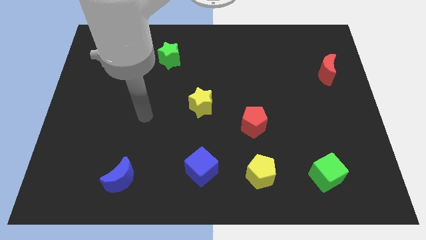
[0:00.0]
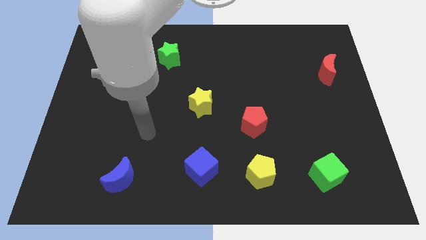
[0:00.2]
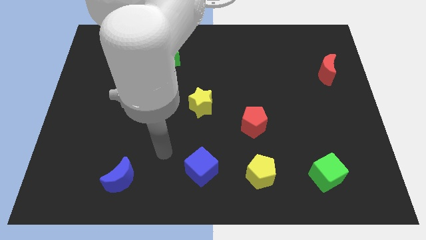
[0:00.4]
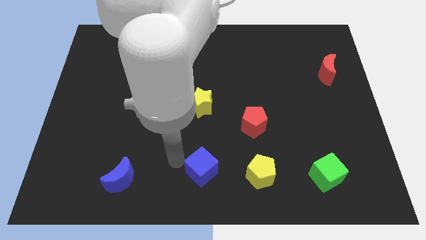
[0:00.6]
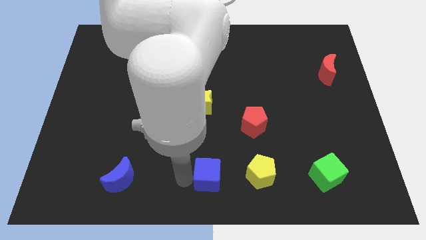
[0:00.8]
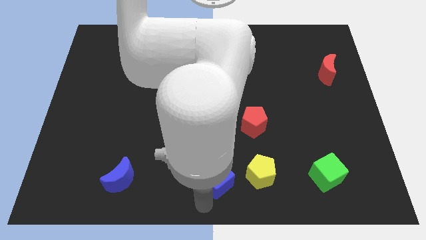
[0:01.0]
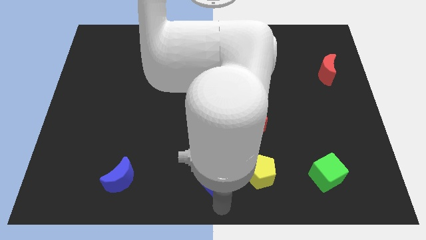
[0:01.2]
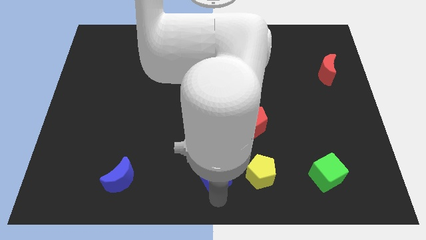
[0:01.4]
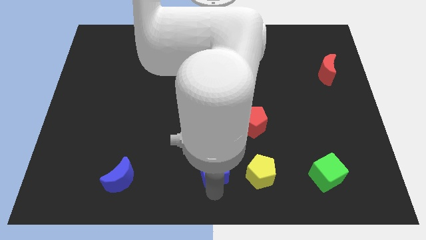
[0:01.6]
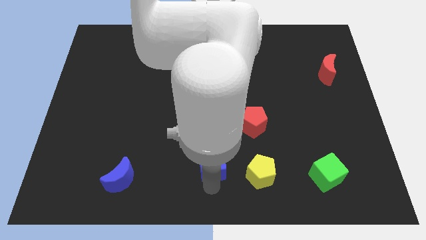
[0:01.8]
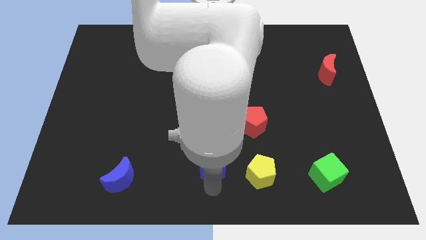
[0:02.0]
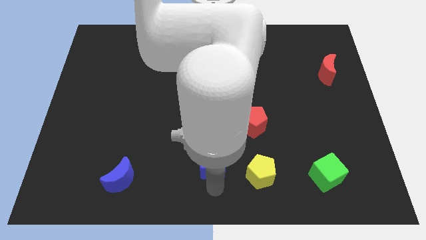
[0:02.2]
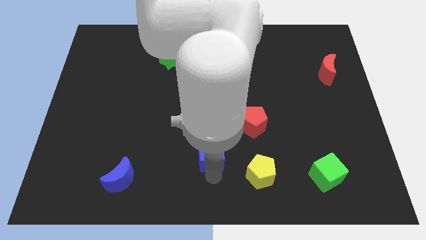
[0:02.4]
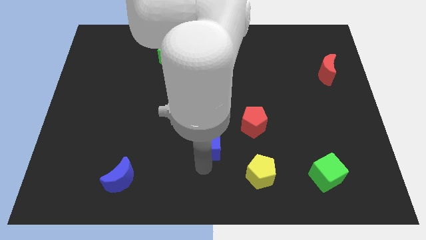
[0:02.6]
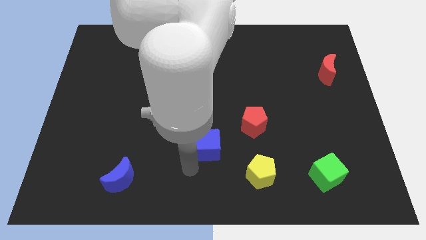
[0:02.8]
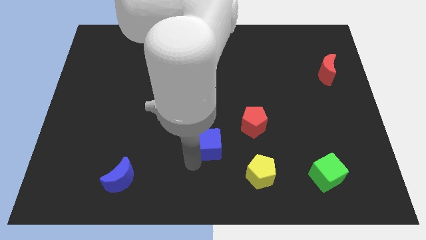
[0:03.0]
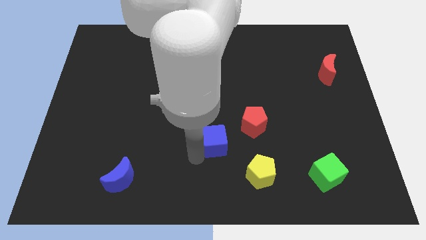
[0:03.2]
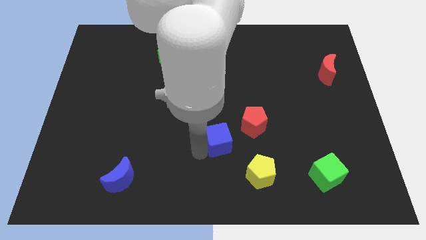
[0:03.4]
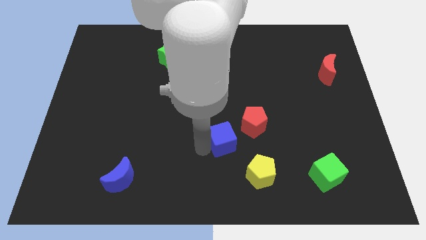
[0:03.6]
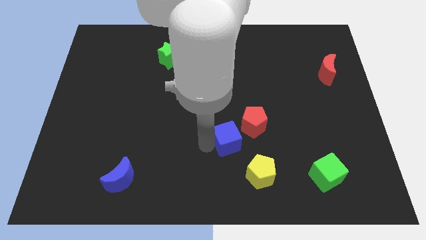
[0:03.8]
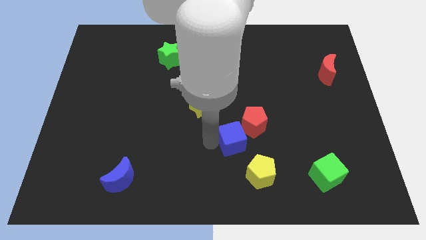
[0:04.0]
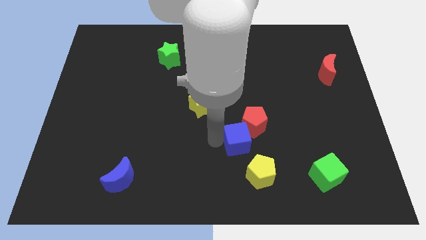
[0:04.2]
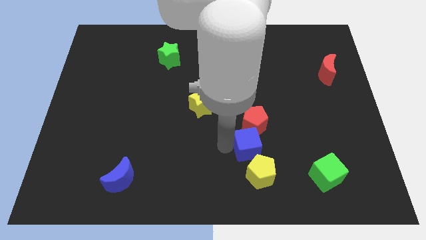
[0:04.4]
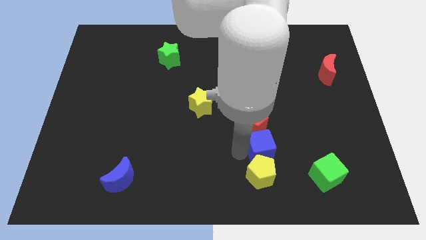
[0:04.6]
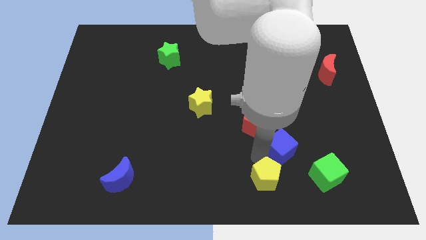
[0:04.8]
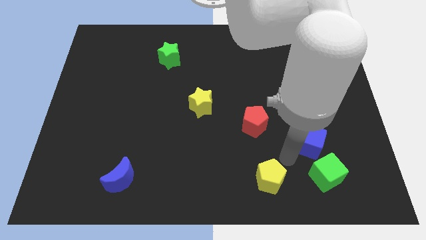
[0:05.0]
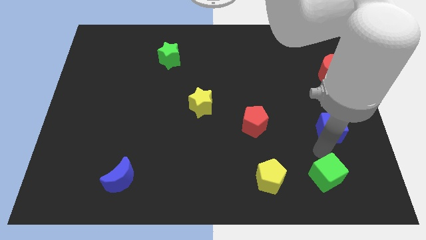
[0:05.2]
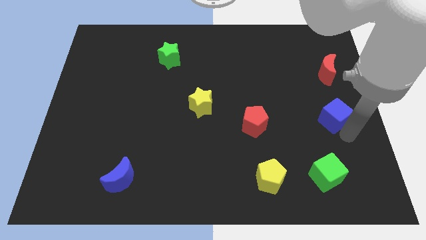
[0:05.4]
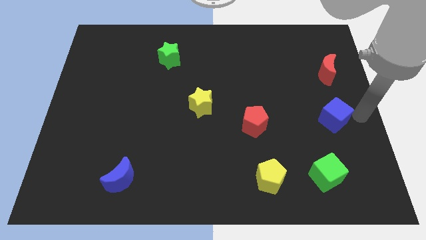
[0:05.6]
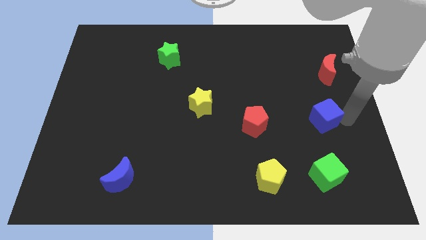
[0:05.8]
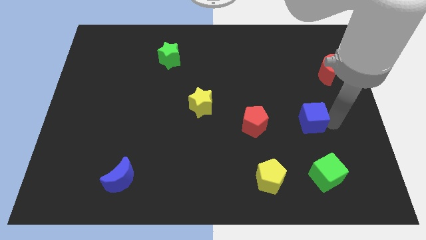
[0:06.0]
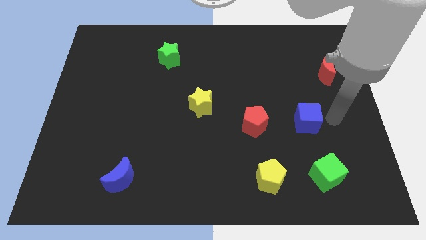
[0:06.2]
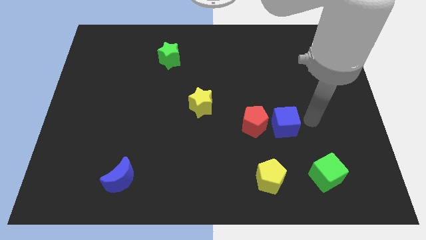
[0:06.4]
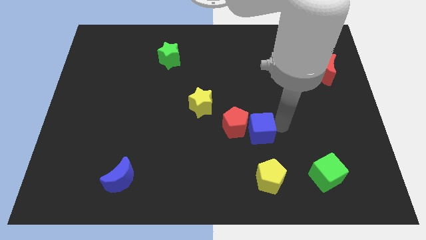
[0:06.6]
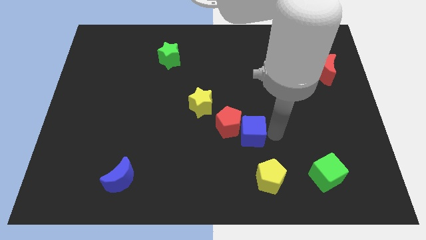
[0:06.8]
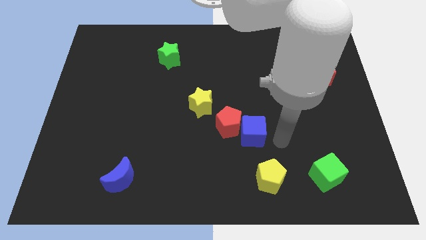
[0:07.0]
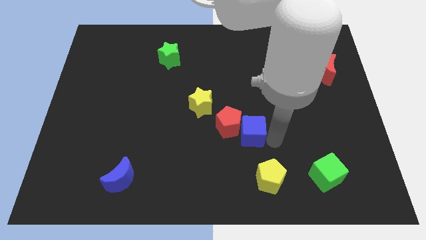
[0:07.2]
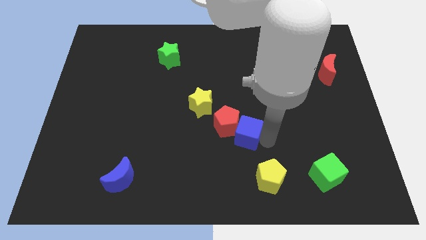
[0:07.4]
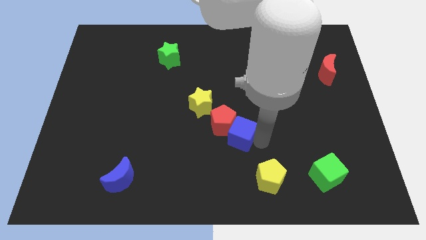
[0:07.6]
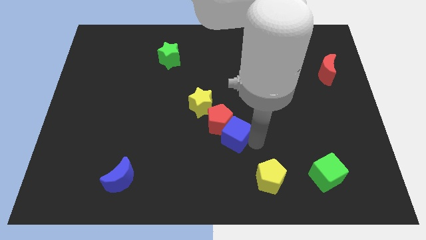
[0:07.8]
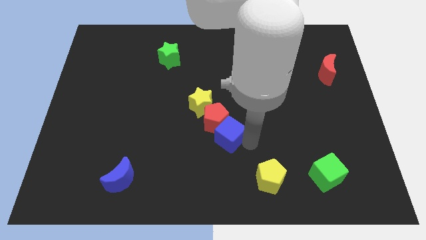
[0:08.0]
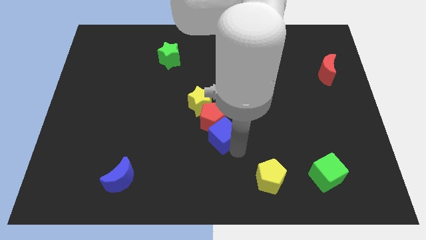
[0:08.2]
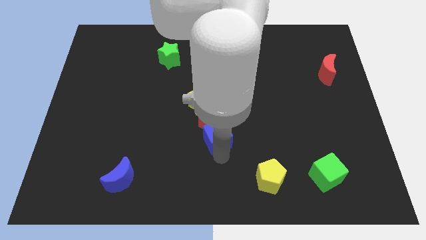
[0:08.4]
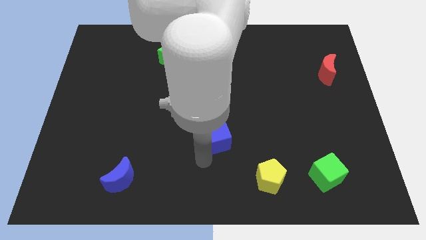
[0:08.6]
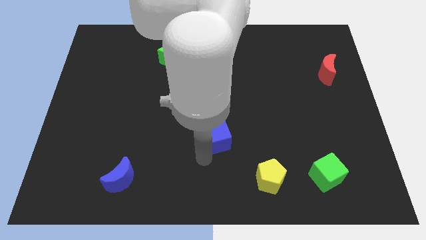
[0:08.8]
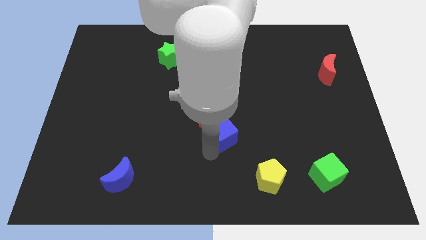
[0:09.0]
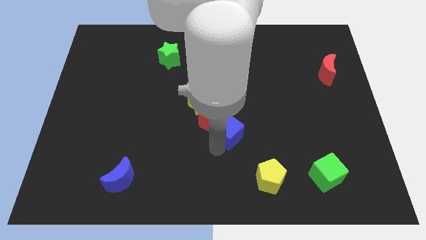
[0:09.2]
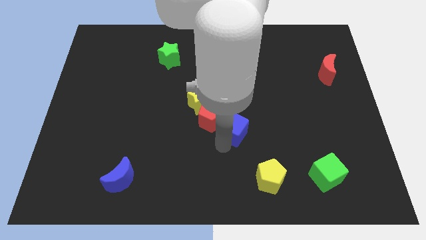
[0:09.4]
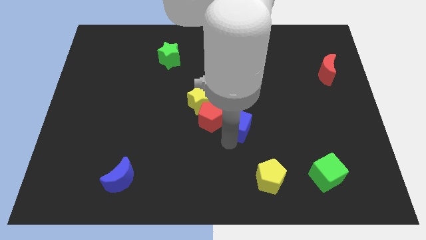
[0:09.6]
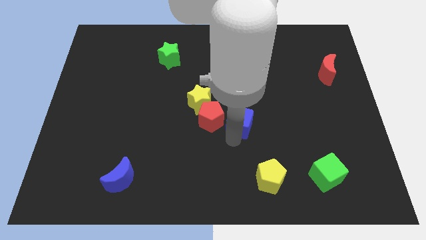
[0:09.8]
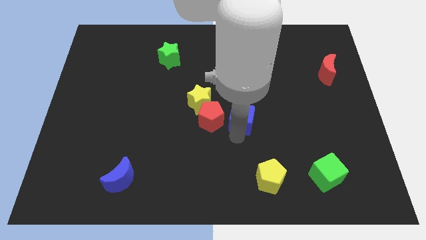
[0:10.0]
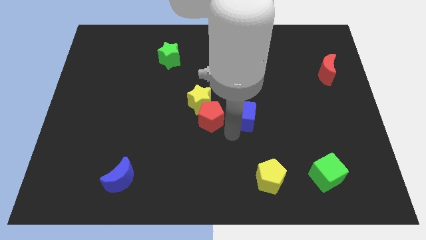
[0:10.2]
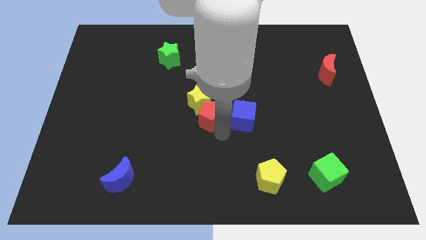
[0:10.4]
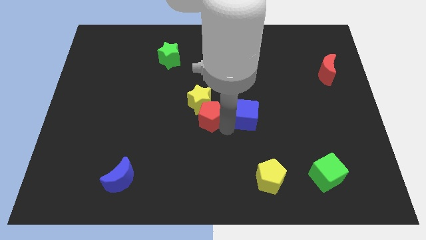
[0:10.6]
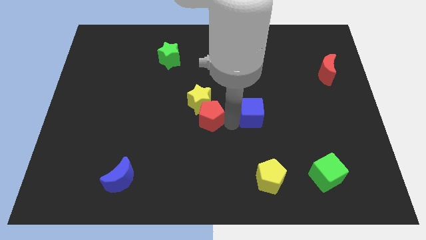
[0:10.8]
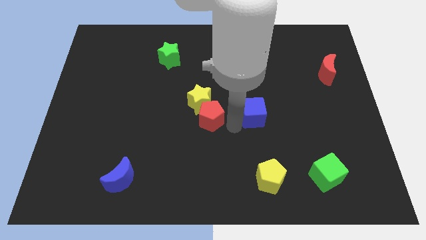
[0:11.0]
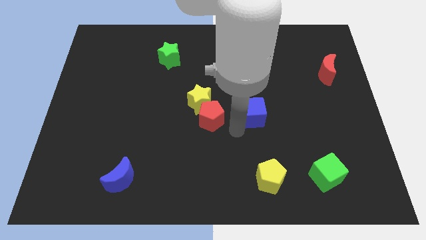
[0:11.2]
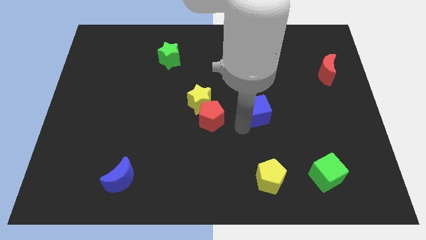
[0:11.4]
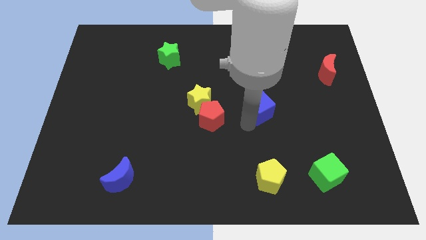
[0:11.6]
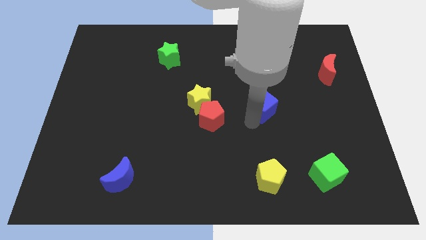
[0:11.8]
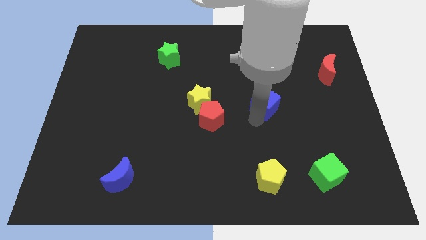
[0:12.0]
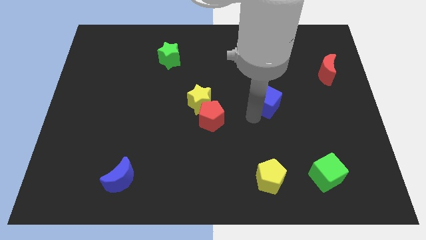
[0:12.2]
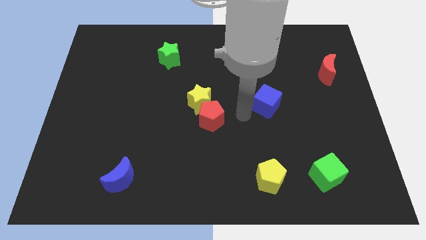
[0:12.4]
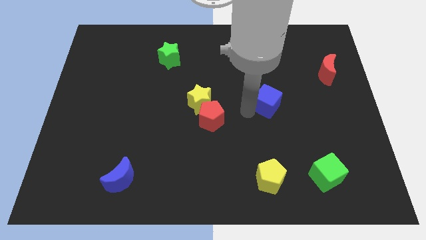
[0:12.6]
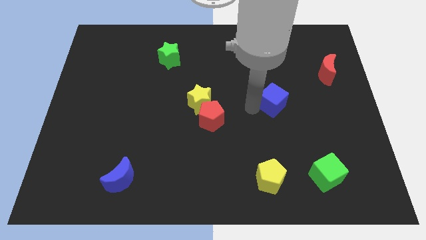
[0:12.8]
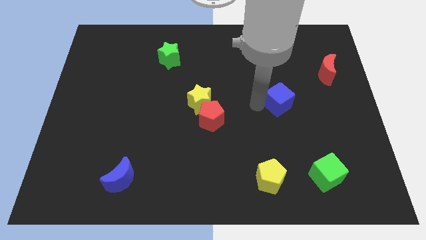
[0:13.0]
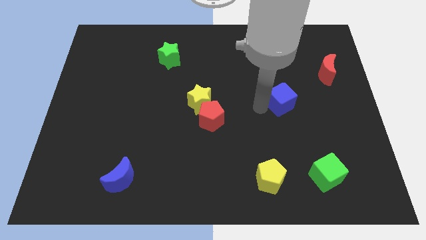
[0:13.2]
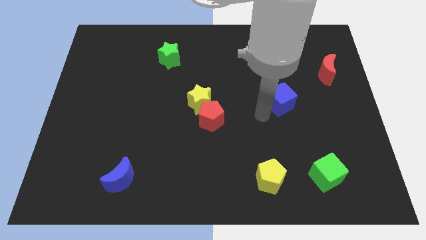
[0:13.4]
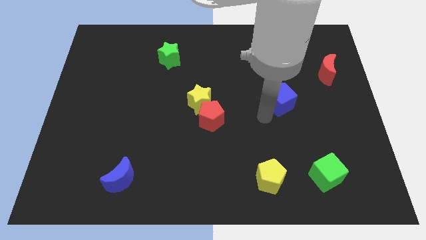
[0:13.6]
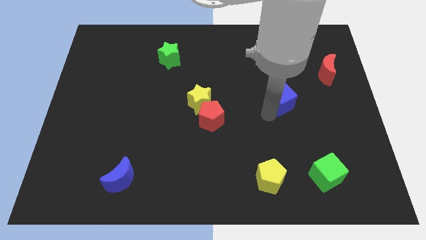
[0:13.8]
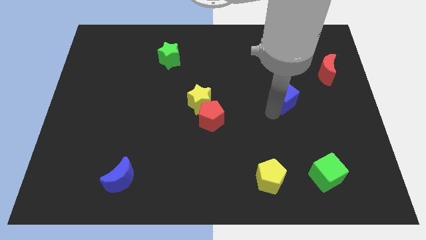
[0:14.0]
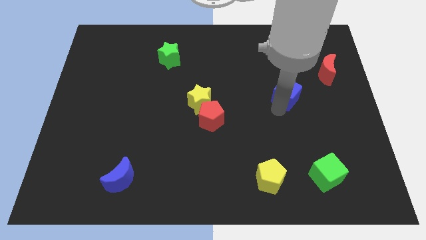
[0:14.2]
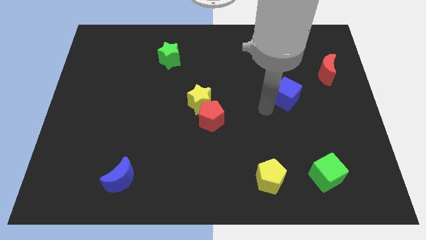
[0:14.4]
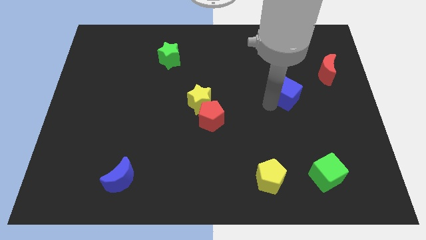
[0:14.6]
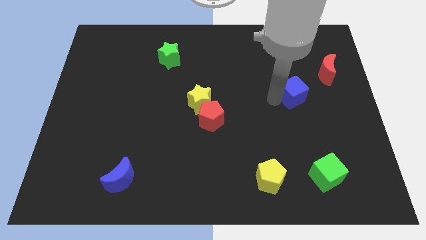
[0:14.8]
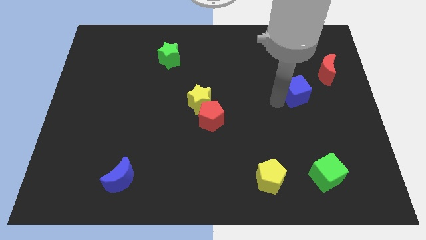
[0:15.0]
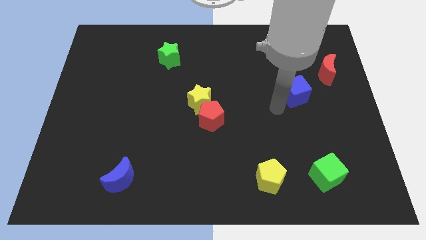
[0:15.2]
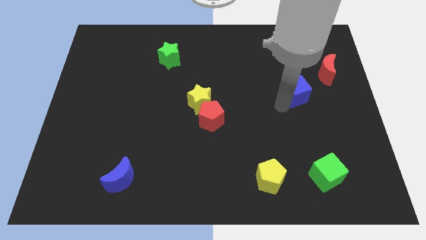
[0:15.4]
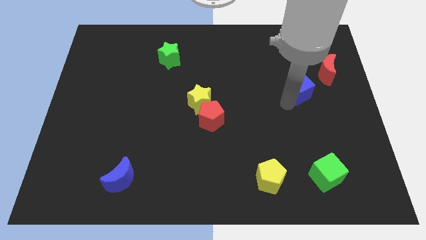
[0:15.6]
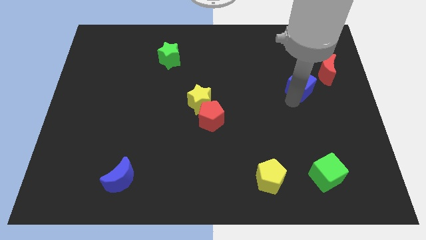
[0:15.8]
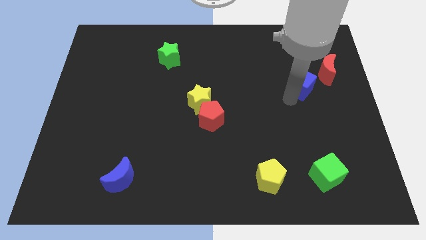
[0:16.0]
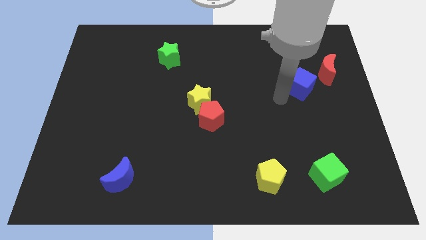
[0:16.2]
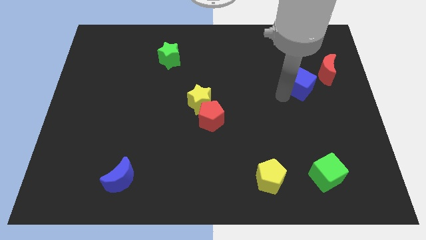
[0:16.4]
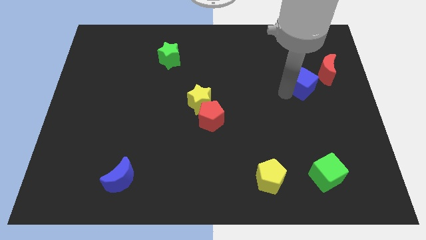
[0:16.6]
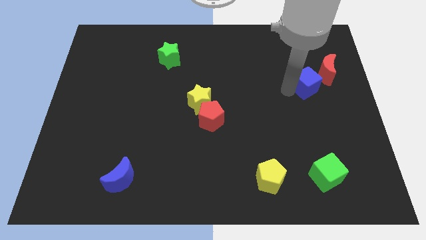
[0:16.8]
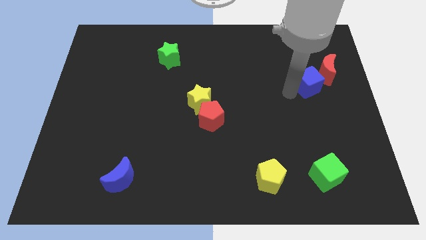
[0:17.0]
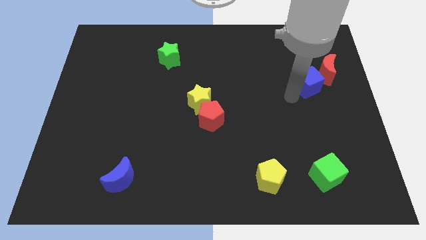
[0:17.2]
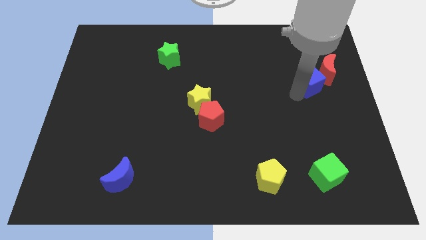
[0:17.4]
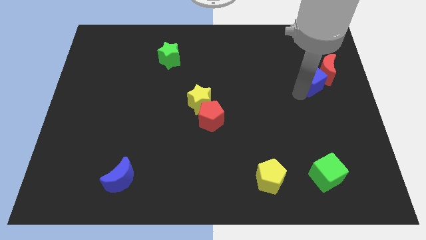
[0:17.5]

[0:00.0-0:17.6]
move the blue cube next to the red moon
